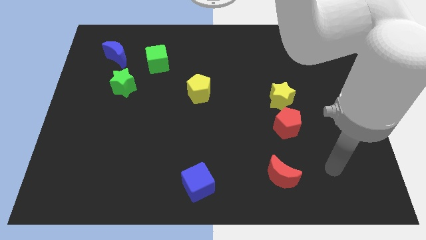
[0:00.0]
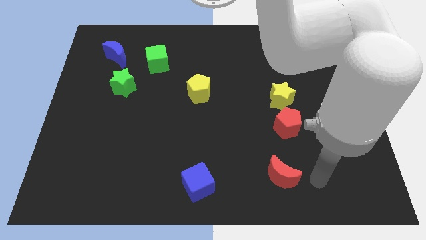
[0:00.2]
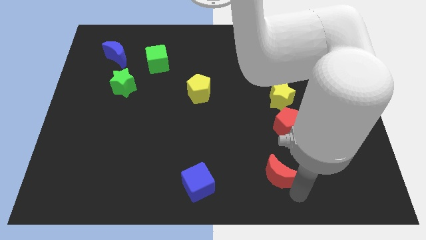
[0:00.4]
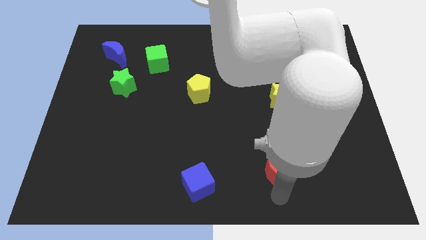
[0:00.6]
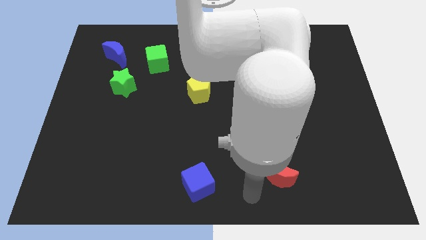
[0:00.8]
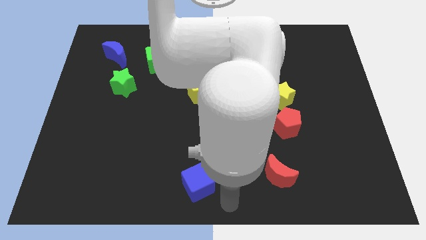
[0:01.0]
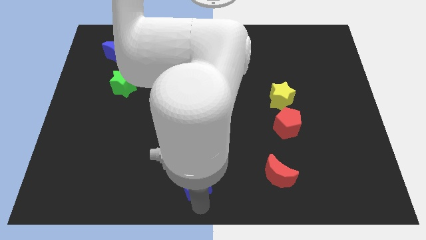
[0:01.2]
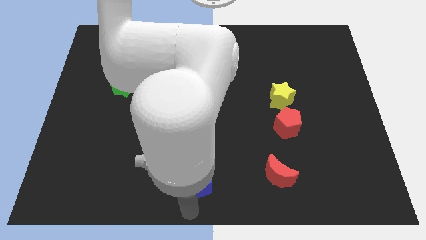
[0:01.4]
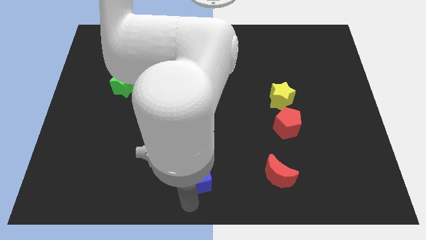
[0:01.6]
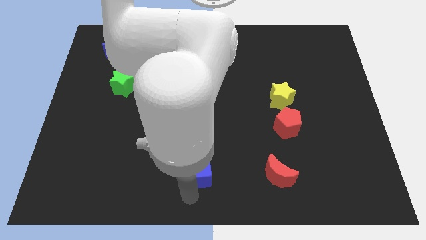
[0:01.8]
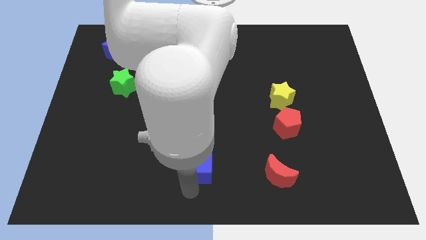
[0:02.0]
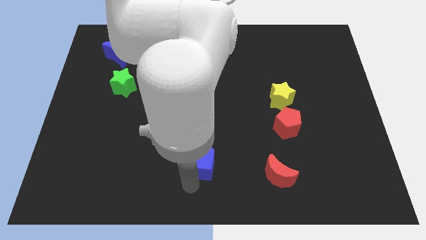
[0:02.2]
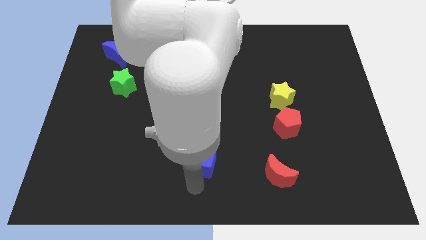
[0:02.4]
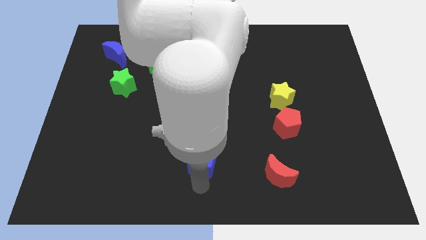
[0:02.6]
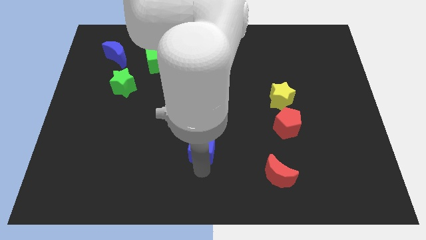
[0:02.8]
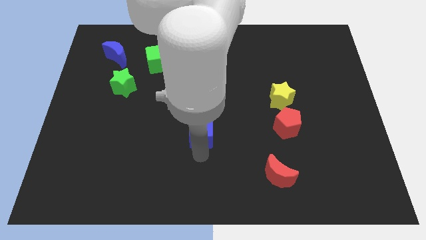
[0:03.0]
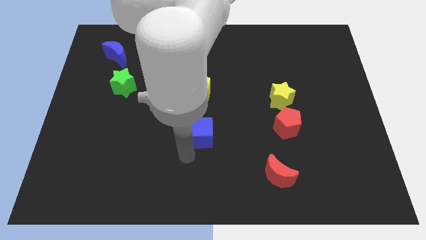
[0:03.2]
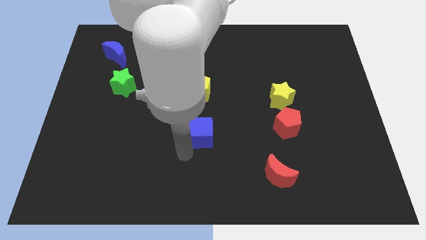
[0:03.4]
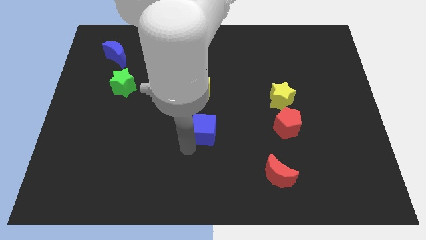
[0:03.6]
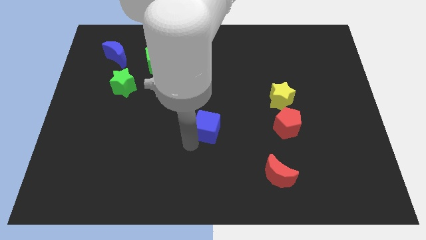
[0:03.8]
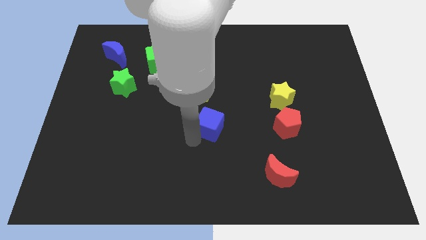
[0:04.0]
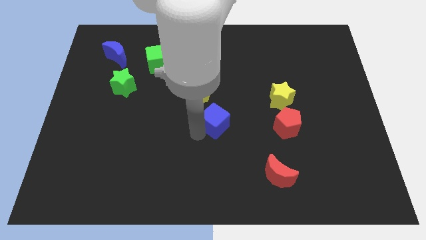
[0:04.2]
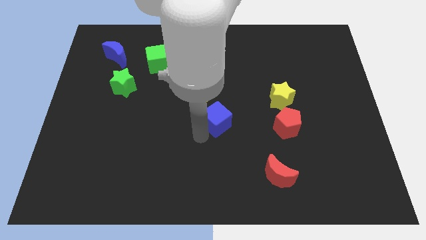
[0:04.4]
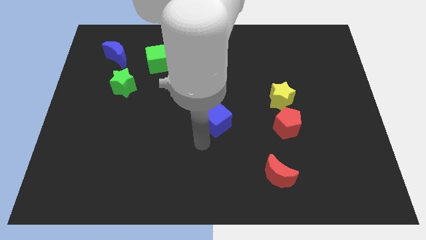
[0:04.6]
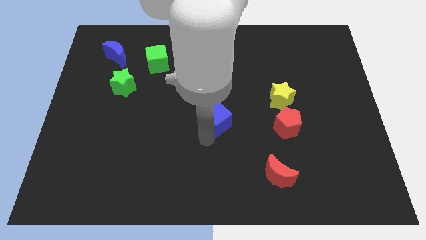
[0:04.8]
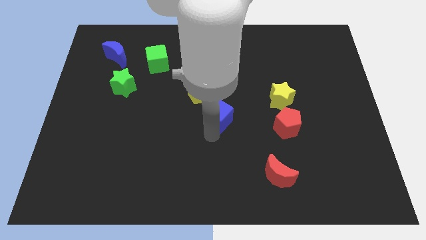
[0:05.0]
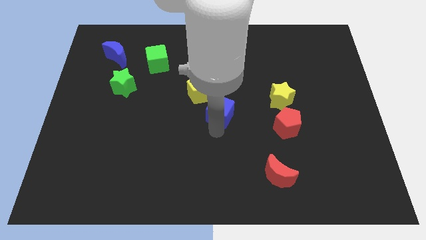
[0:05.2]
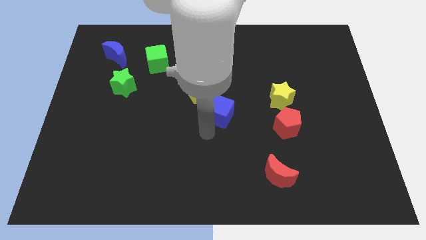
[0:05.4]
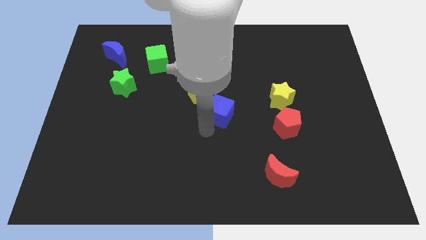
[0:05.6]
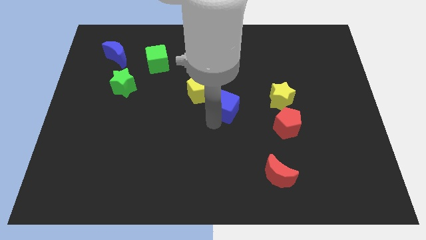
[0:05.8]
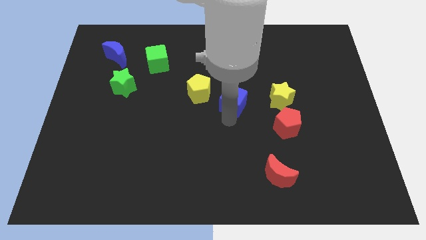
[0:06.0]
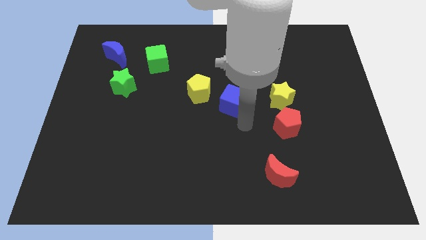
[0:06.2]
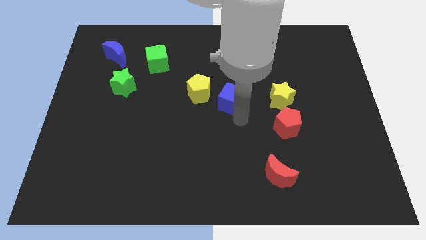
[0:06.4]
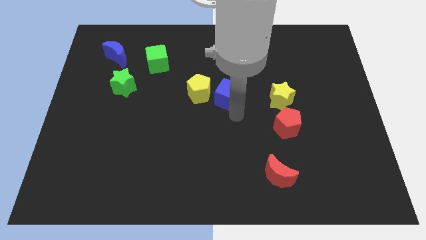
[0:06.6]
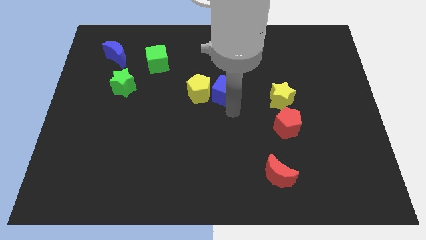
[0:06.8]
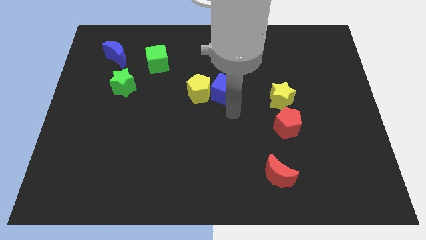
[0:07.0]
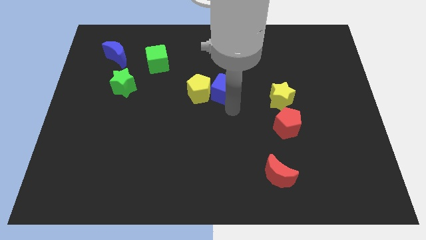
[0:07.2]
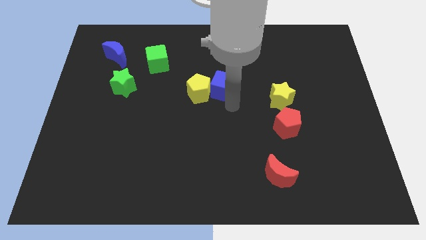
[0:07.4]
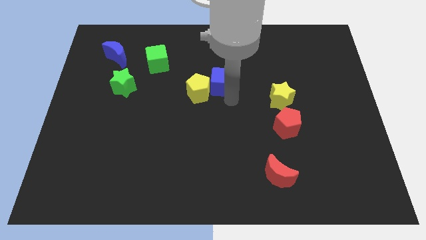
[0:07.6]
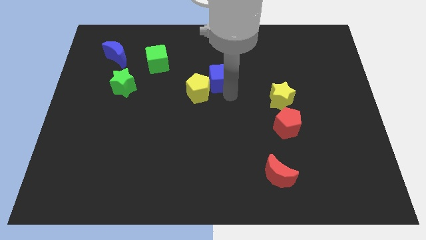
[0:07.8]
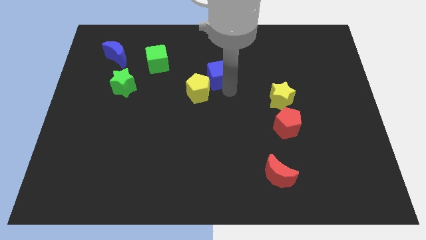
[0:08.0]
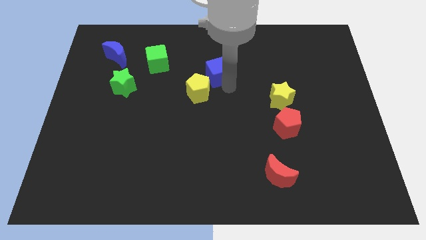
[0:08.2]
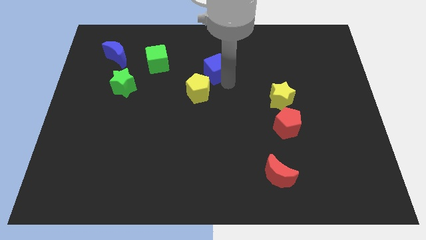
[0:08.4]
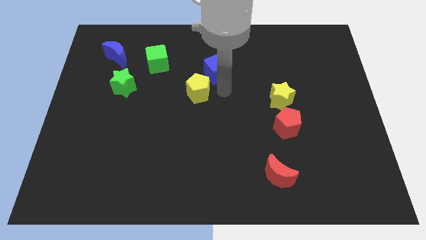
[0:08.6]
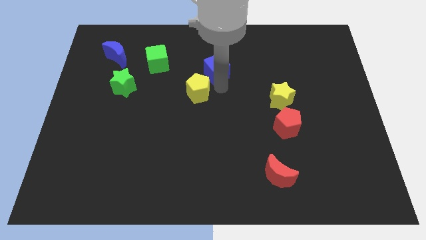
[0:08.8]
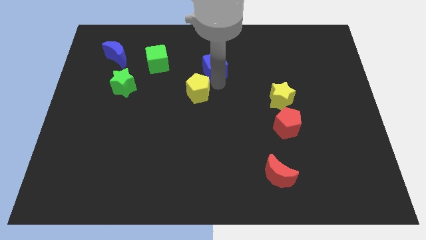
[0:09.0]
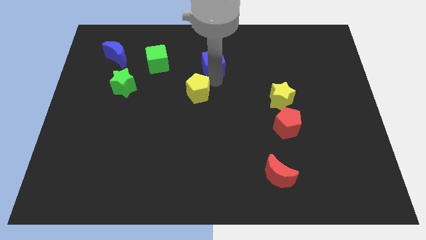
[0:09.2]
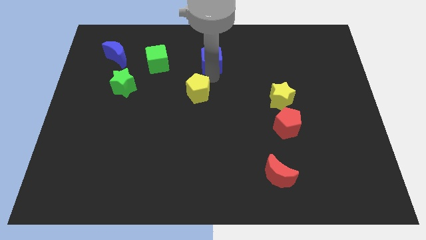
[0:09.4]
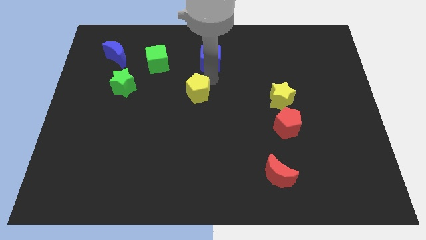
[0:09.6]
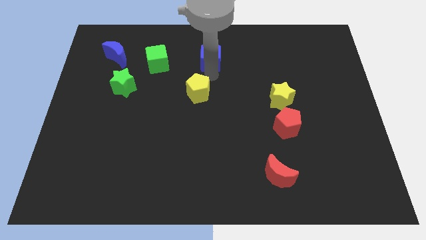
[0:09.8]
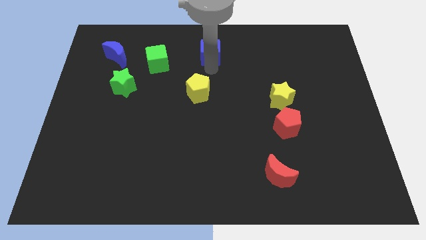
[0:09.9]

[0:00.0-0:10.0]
move the blue cube to the towards your base

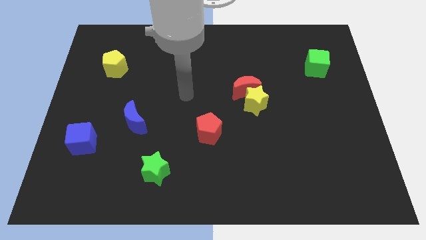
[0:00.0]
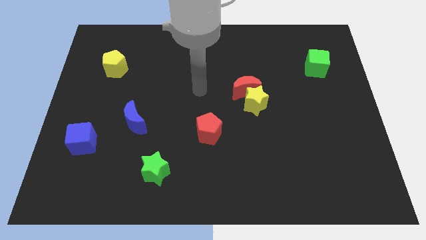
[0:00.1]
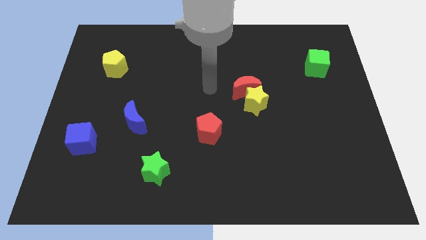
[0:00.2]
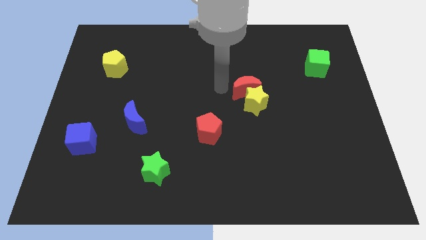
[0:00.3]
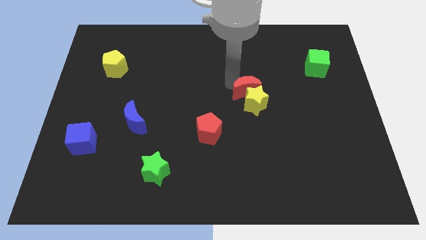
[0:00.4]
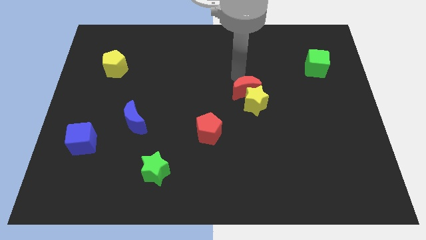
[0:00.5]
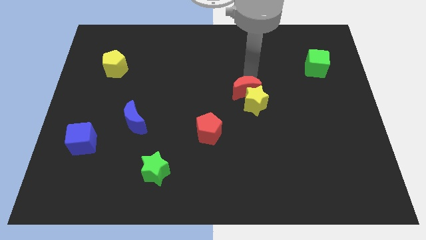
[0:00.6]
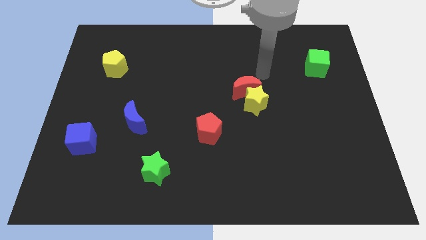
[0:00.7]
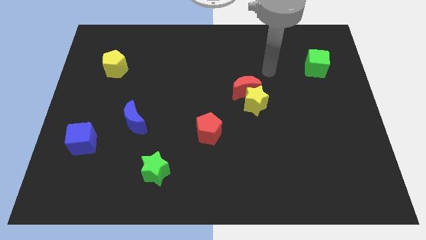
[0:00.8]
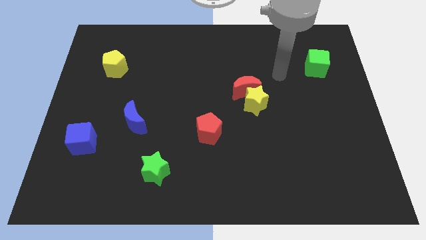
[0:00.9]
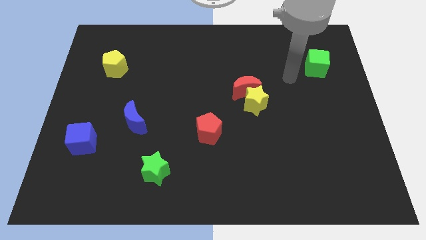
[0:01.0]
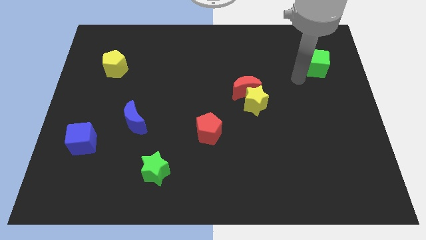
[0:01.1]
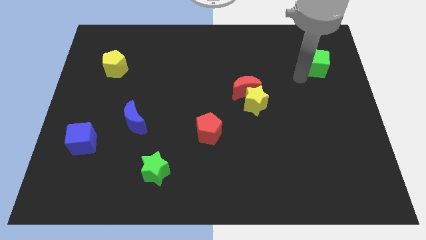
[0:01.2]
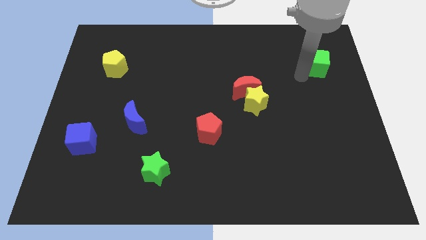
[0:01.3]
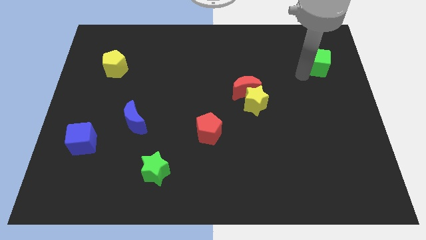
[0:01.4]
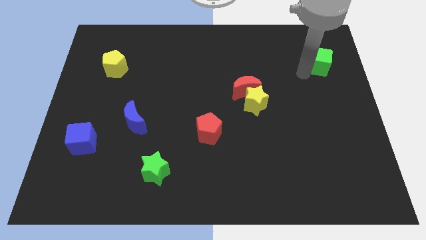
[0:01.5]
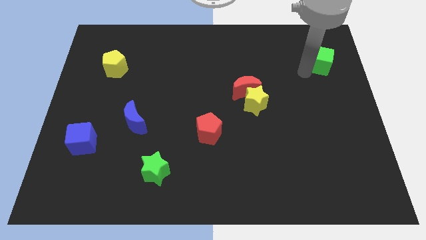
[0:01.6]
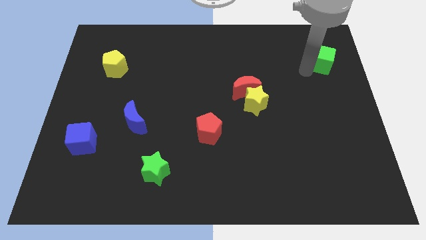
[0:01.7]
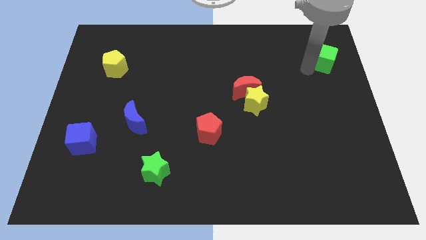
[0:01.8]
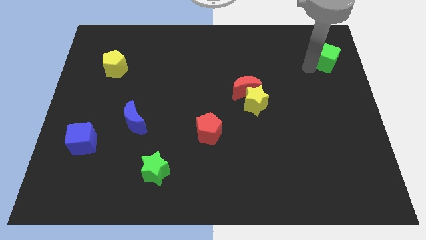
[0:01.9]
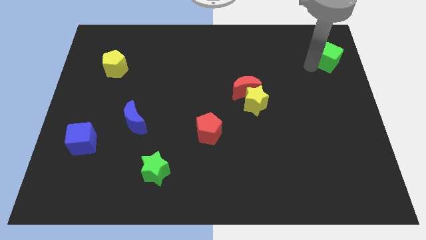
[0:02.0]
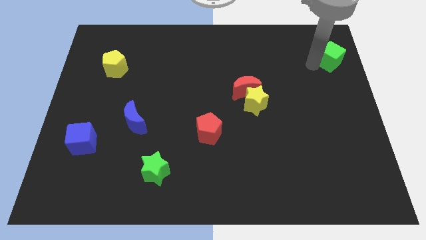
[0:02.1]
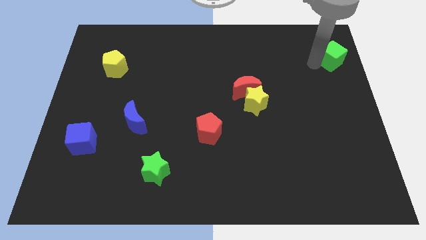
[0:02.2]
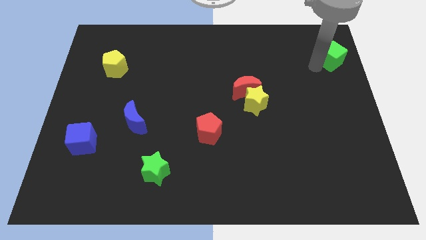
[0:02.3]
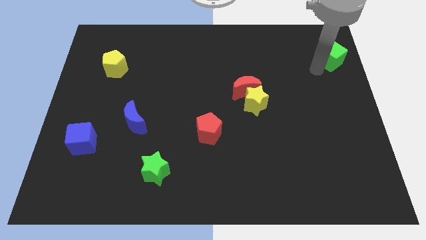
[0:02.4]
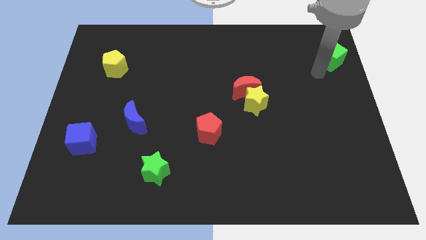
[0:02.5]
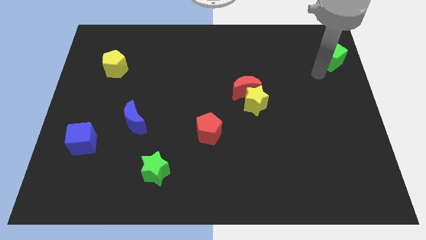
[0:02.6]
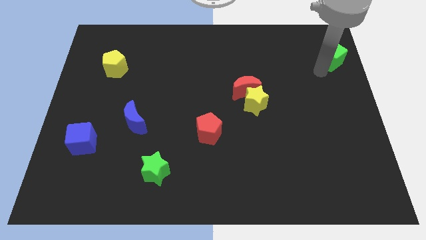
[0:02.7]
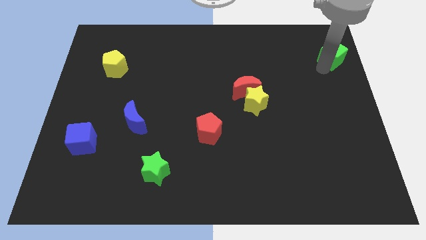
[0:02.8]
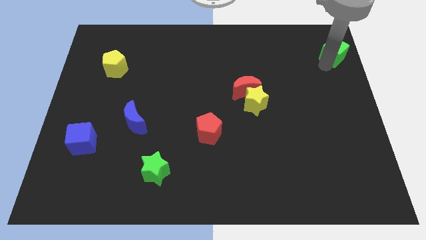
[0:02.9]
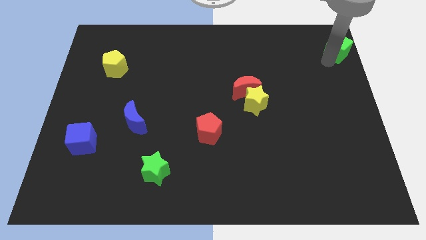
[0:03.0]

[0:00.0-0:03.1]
put the green cube to the top right of the board
